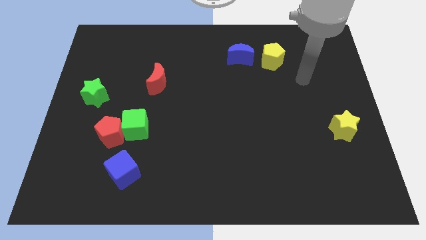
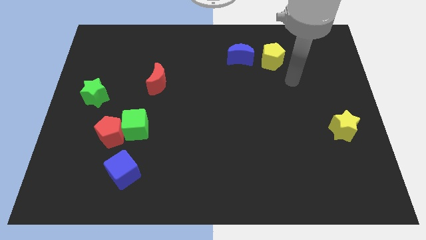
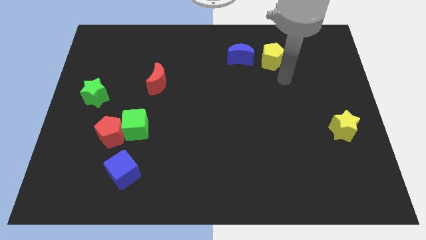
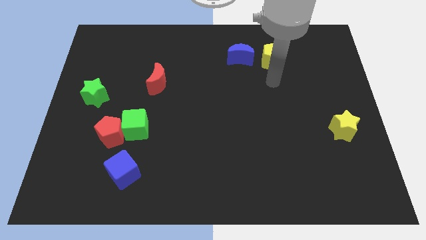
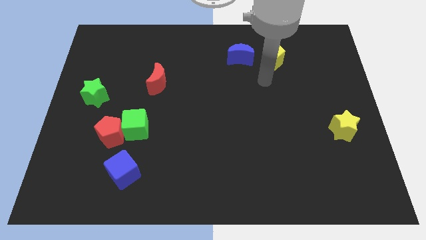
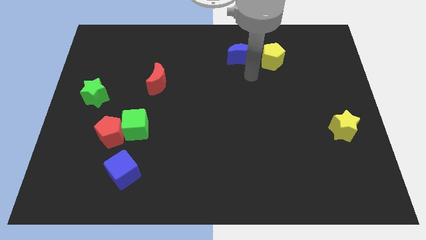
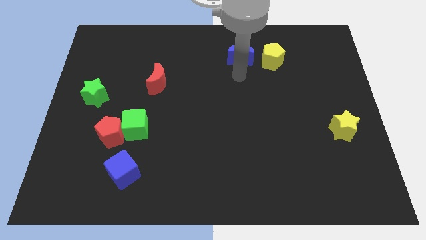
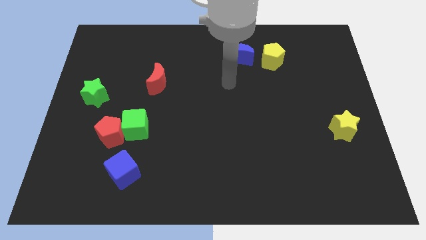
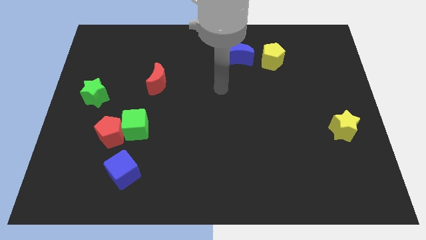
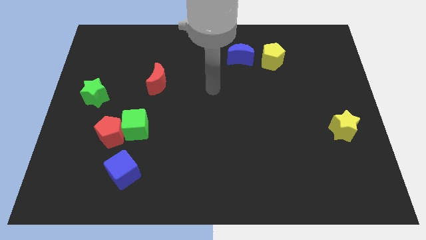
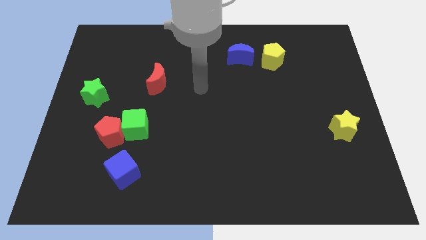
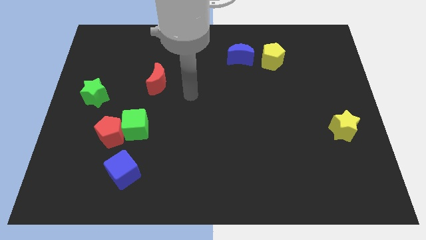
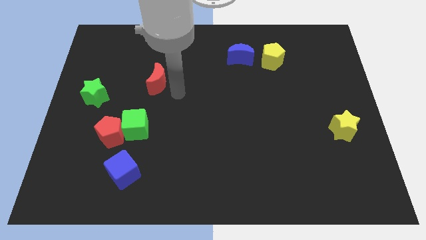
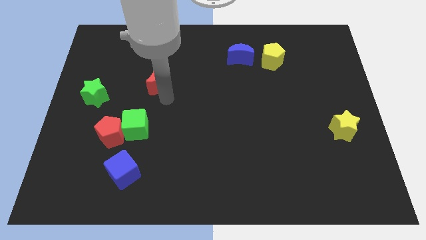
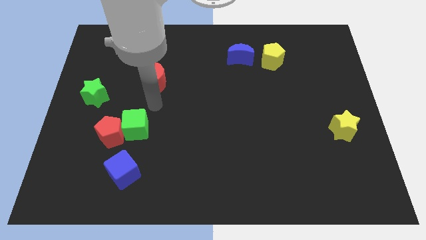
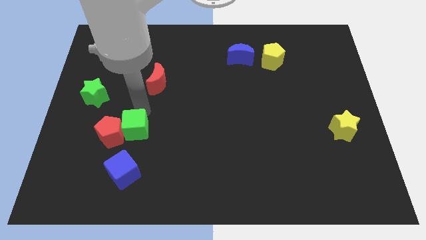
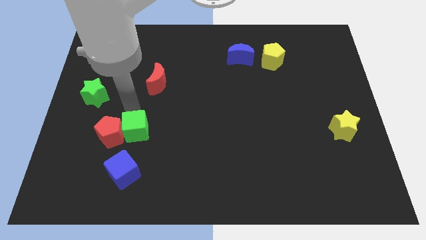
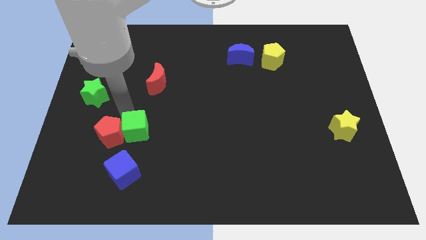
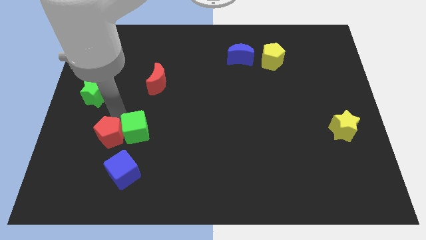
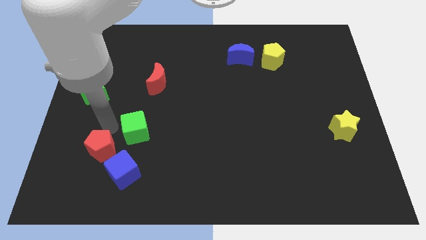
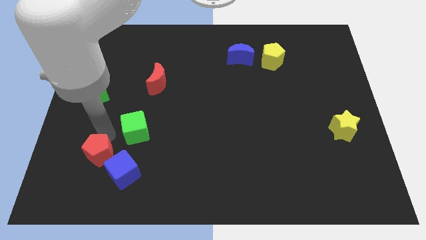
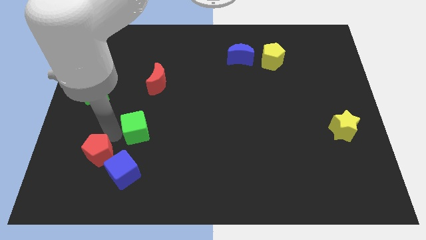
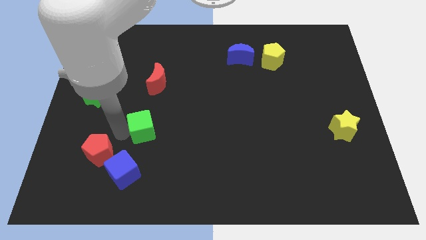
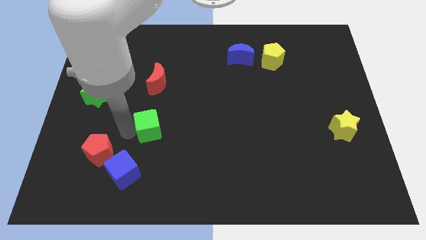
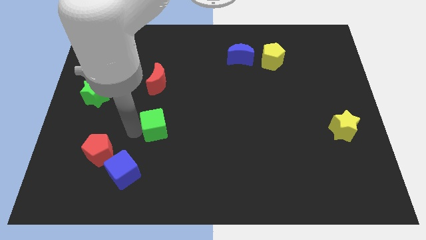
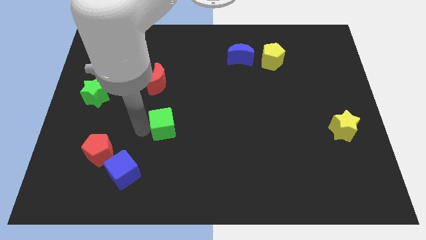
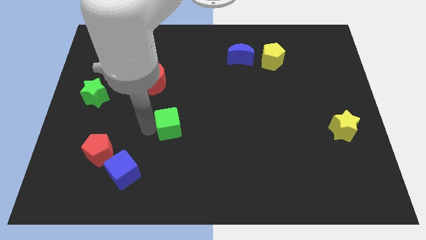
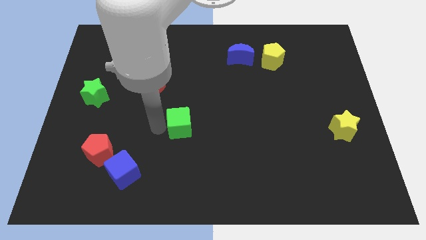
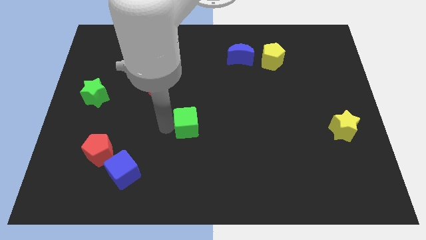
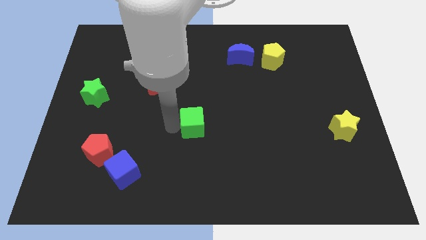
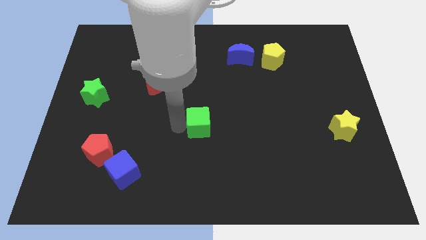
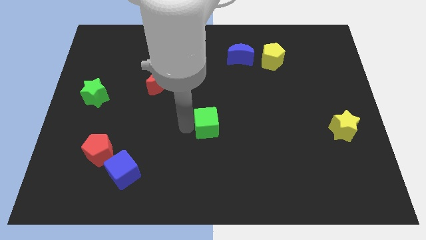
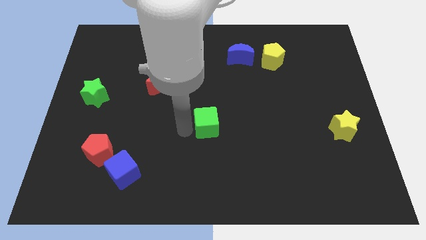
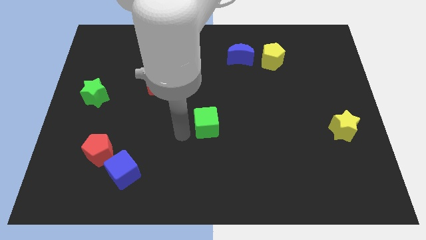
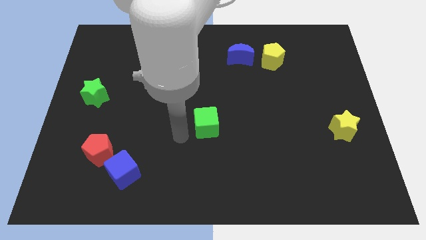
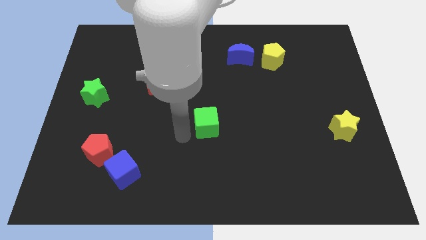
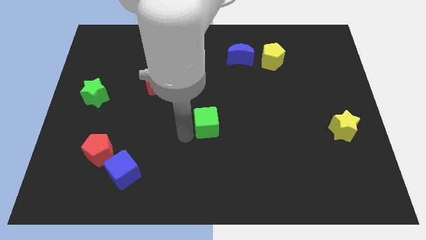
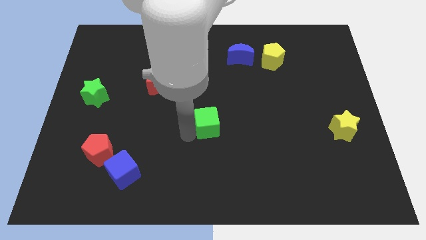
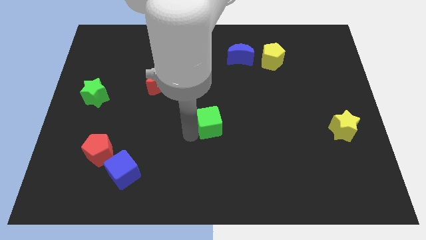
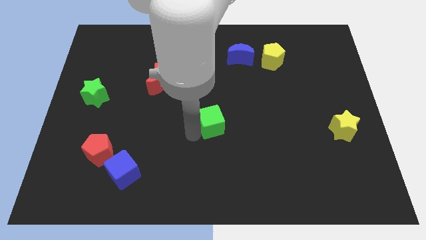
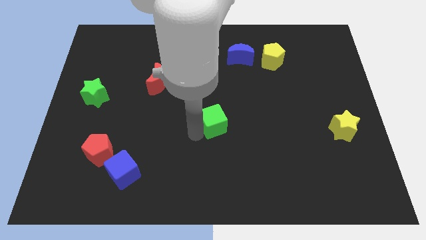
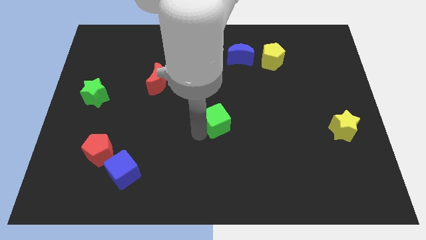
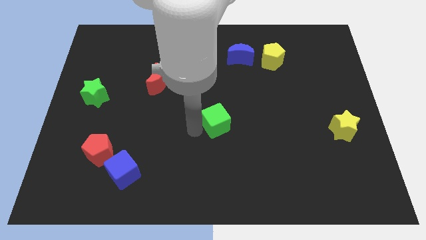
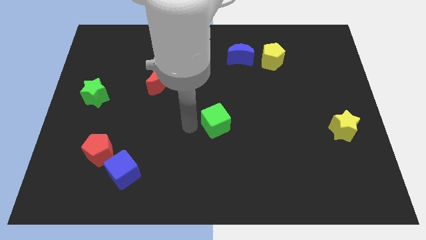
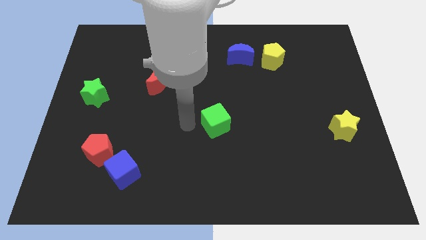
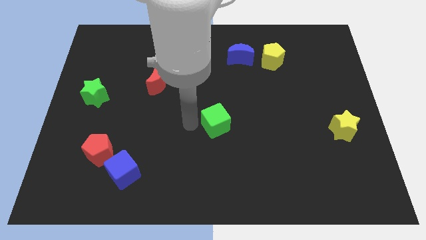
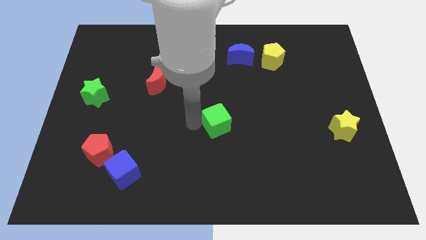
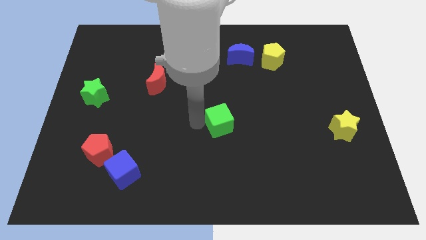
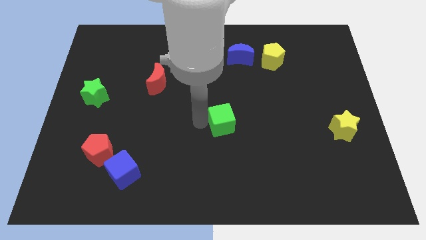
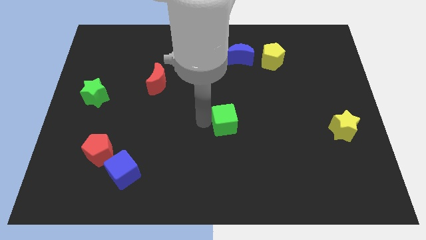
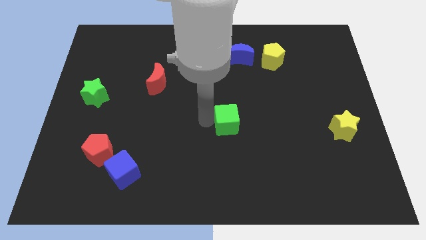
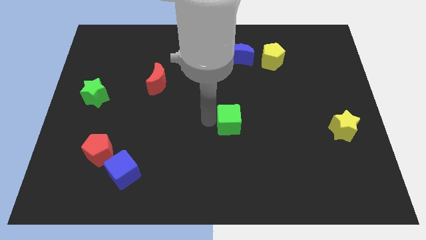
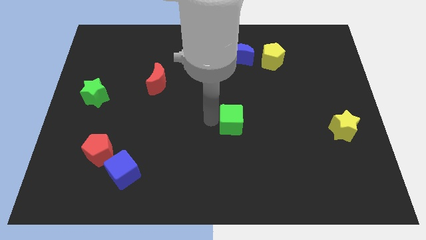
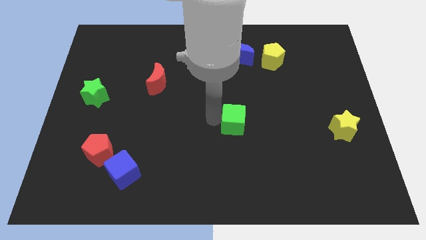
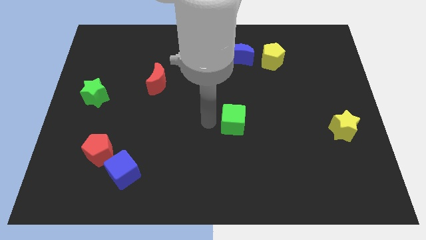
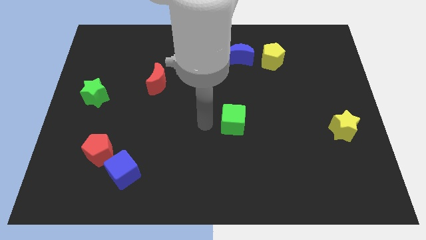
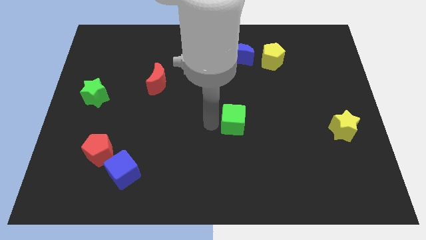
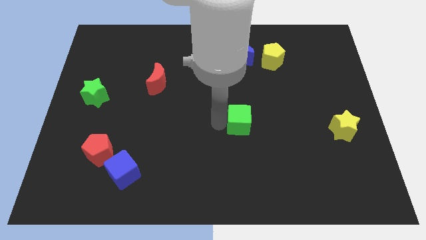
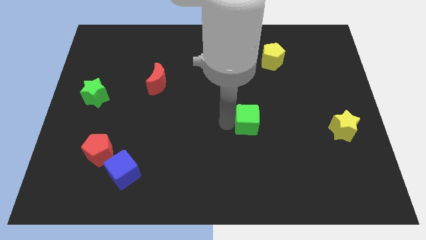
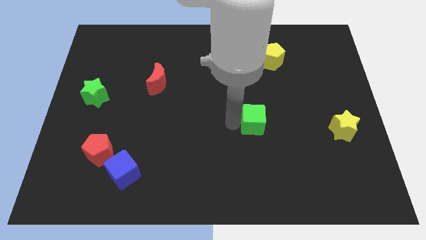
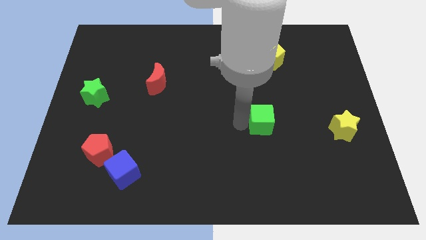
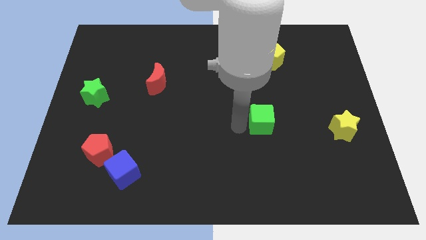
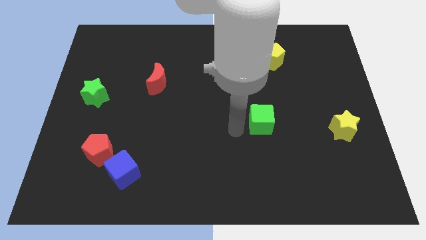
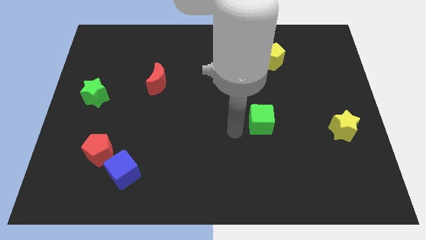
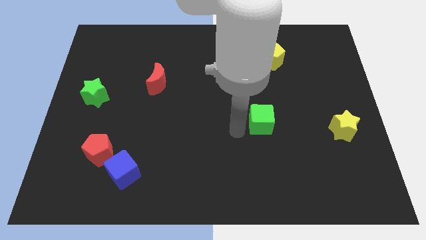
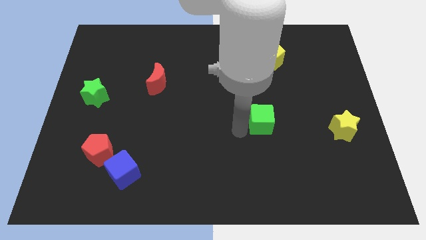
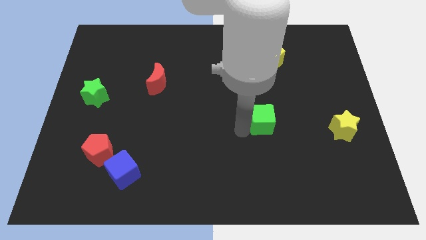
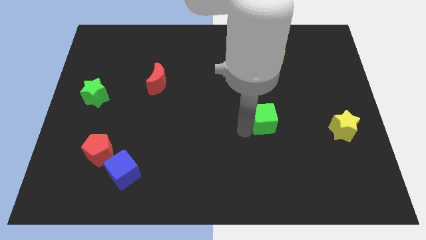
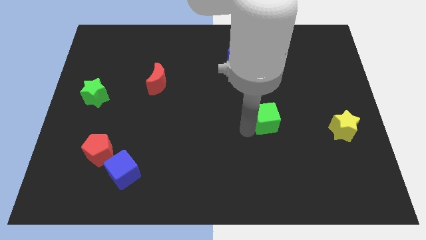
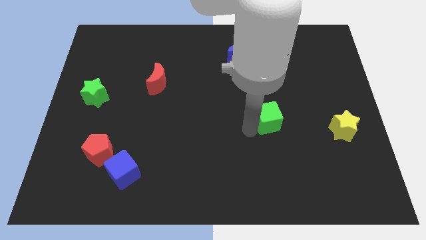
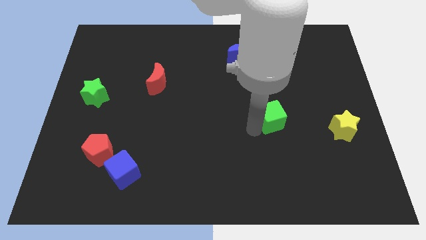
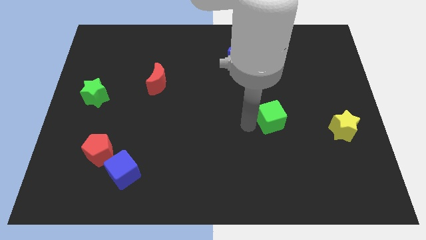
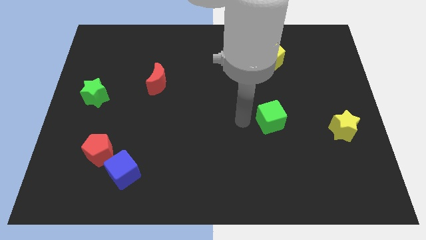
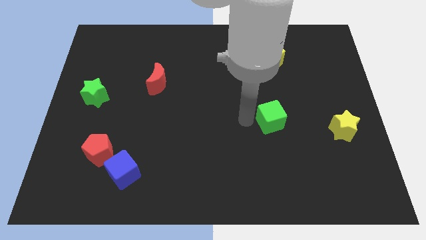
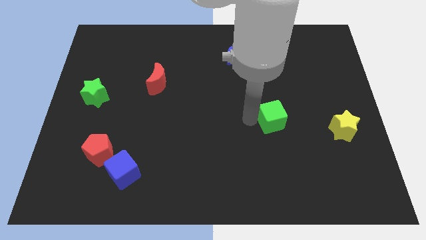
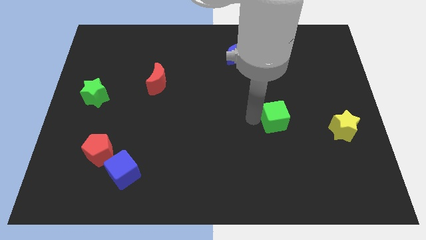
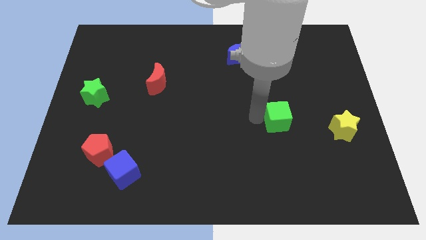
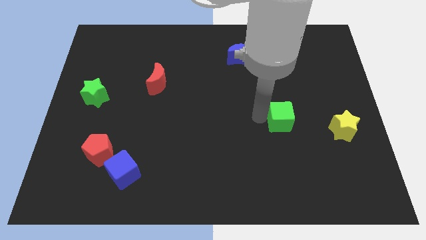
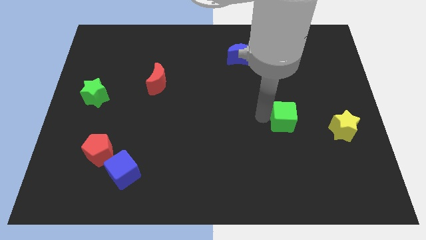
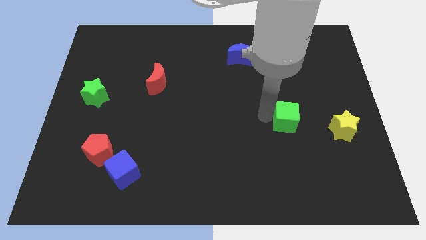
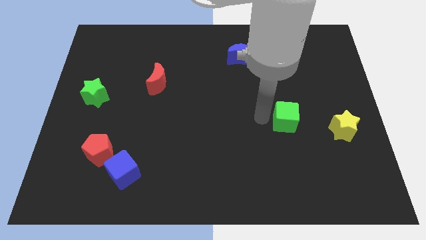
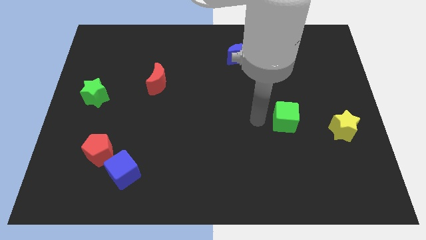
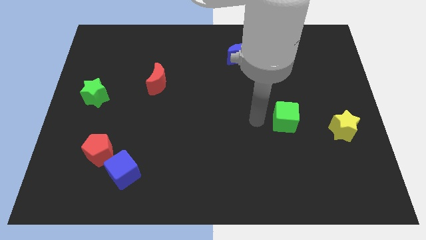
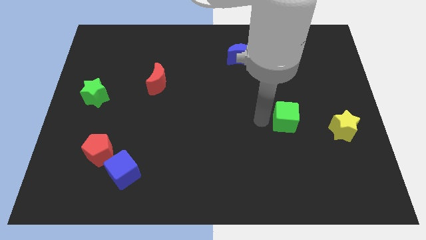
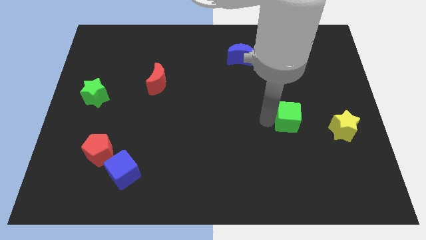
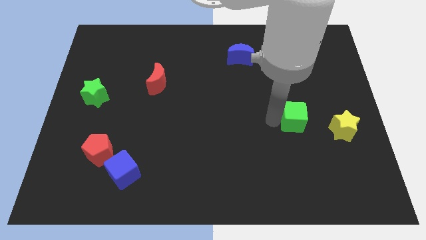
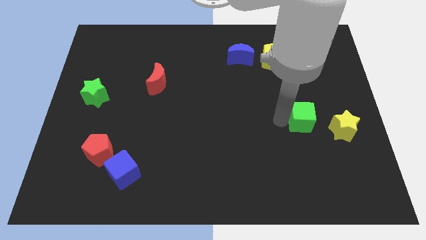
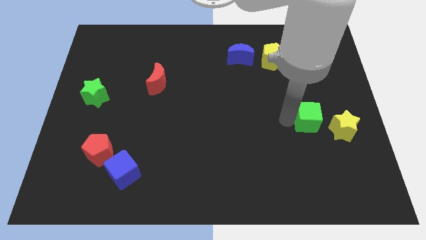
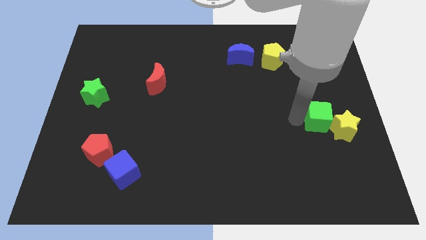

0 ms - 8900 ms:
move the green cube towards the yellow star
